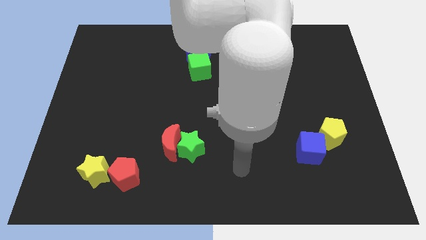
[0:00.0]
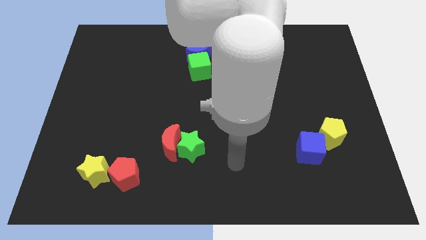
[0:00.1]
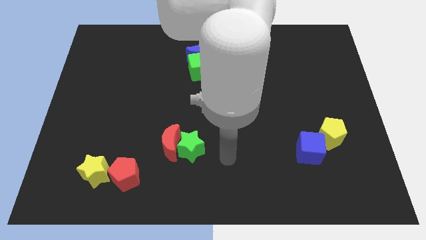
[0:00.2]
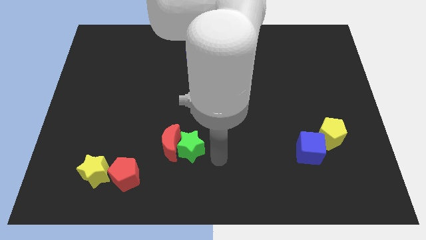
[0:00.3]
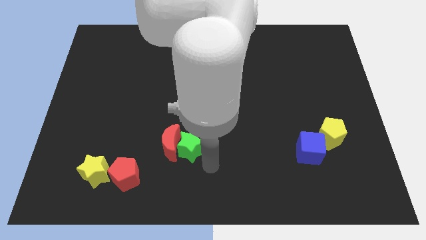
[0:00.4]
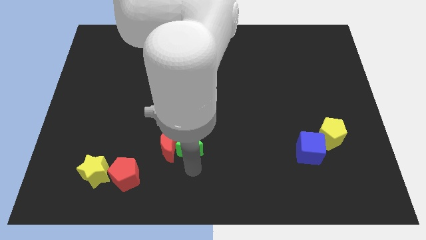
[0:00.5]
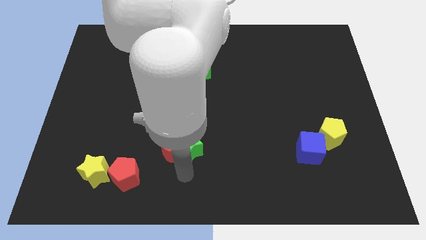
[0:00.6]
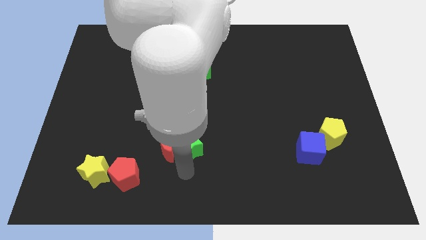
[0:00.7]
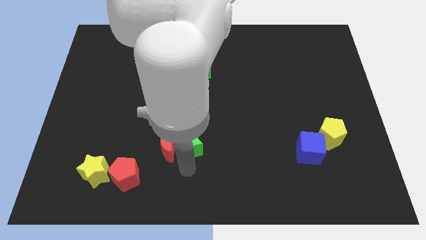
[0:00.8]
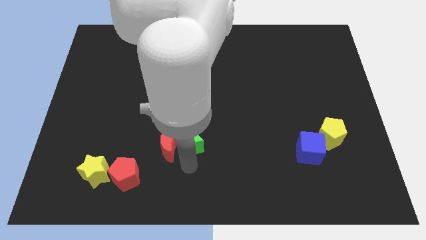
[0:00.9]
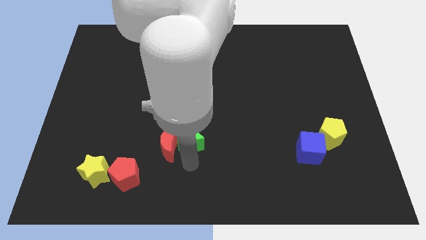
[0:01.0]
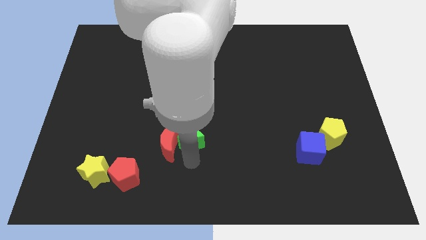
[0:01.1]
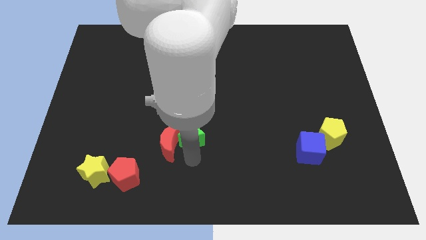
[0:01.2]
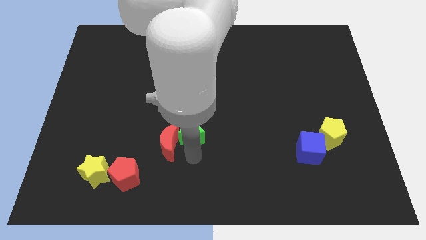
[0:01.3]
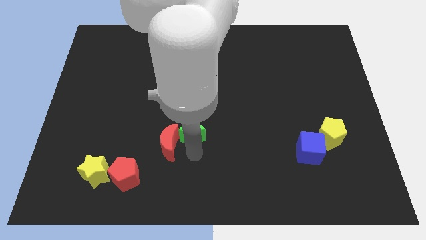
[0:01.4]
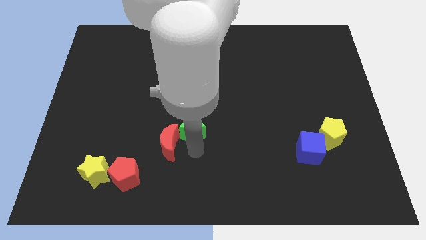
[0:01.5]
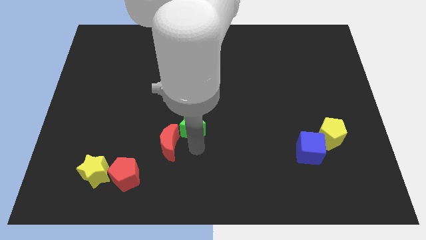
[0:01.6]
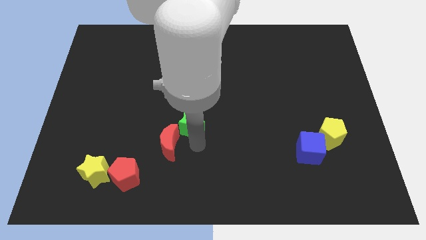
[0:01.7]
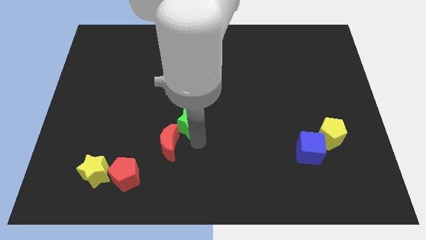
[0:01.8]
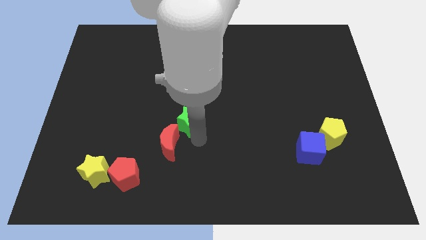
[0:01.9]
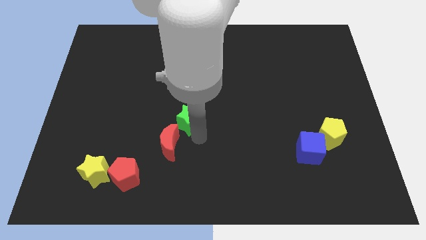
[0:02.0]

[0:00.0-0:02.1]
push the green star a bit up

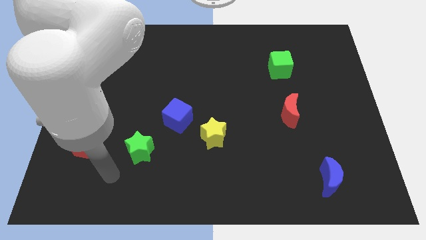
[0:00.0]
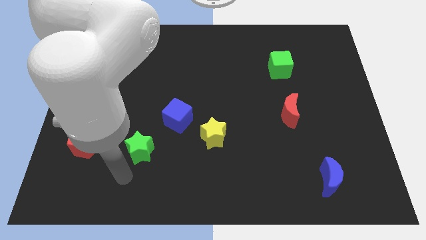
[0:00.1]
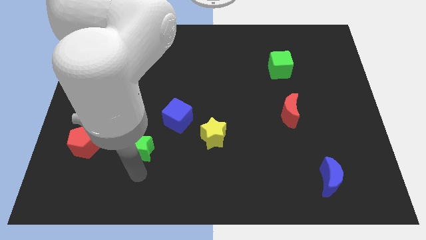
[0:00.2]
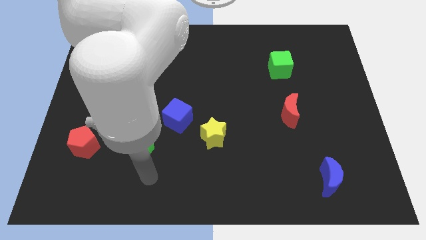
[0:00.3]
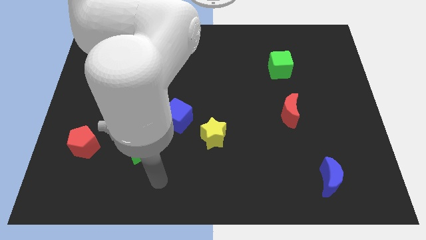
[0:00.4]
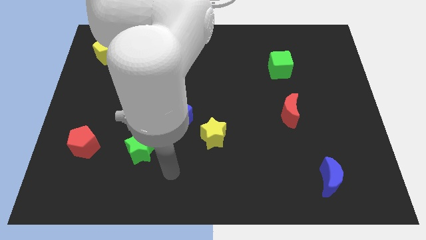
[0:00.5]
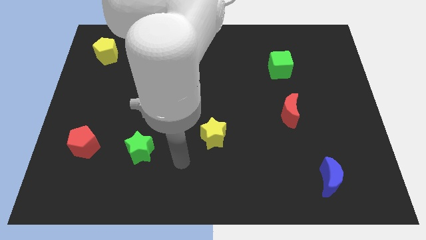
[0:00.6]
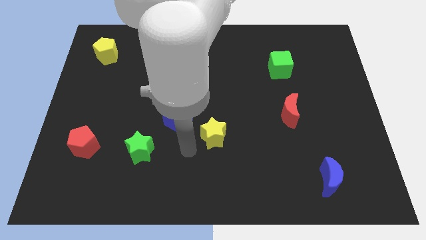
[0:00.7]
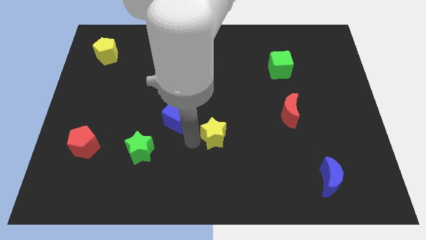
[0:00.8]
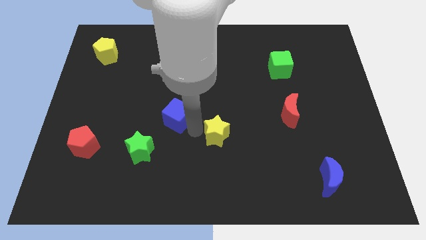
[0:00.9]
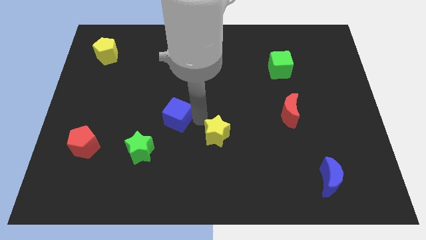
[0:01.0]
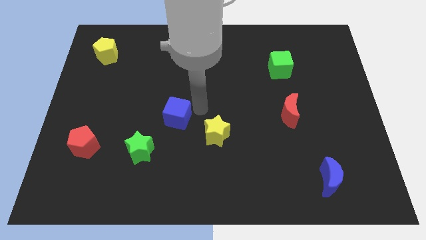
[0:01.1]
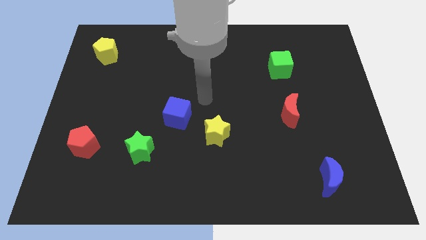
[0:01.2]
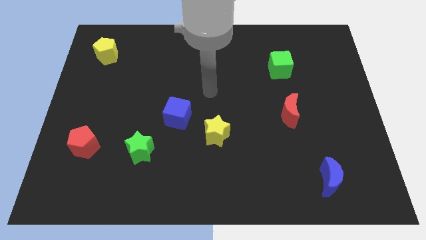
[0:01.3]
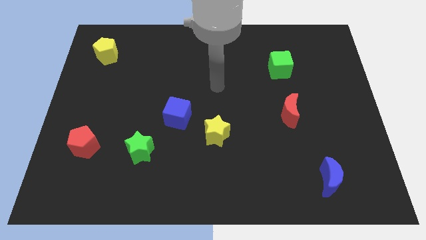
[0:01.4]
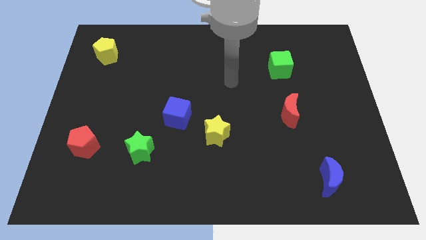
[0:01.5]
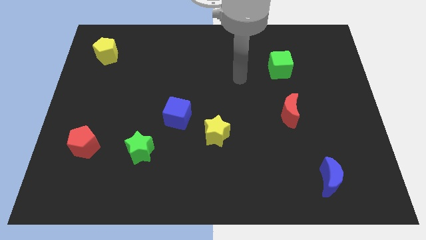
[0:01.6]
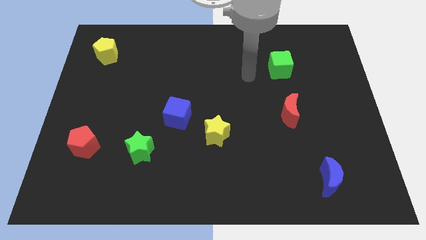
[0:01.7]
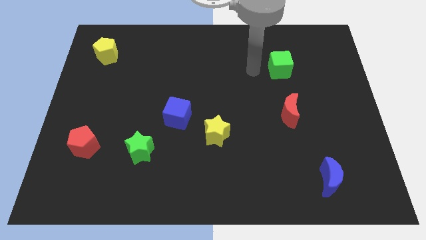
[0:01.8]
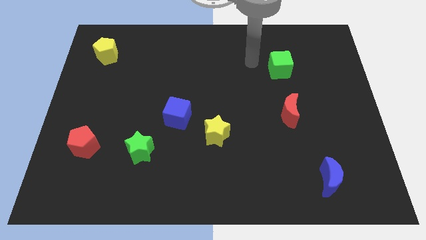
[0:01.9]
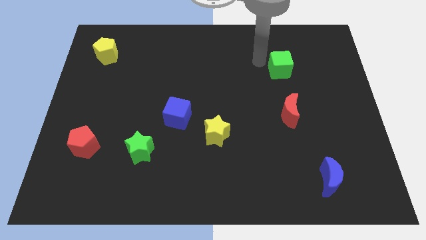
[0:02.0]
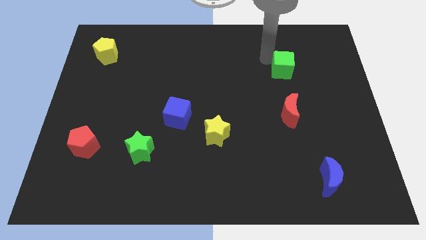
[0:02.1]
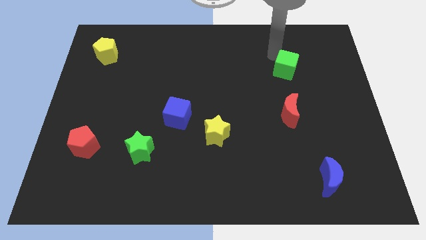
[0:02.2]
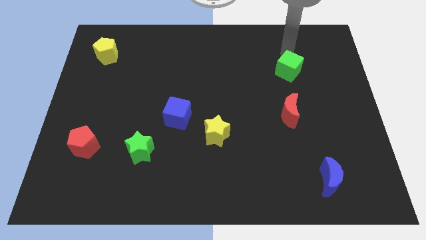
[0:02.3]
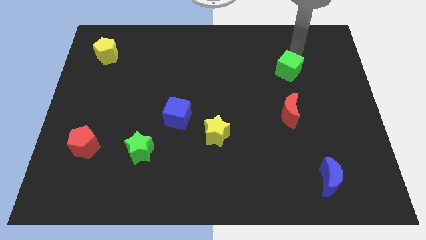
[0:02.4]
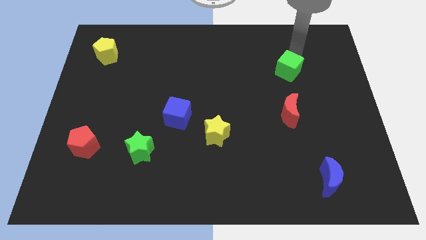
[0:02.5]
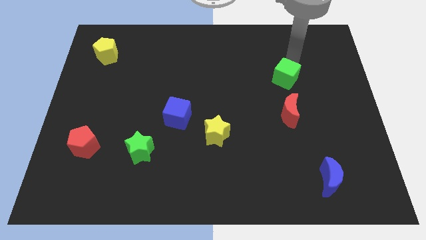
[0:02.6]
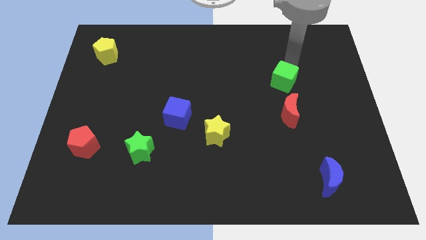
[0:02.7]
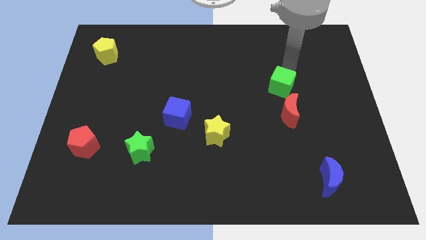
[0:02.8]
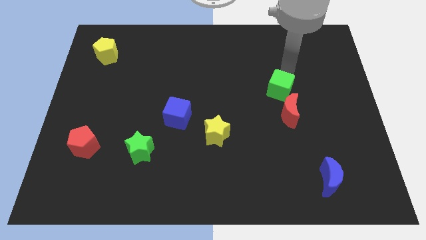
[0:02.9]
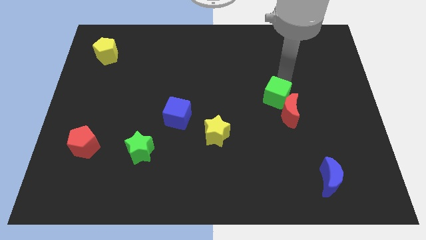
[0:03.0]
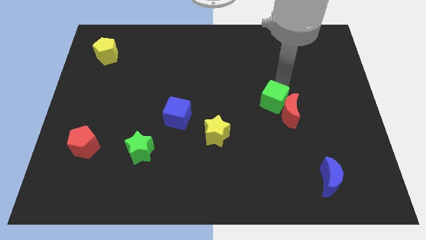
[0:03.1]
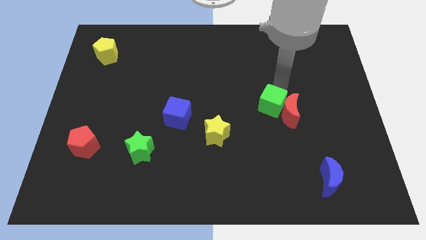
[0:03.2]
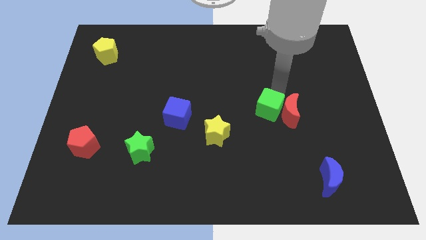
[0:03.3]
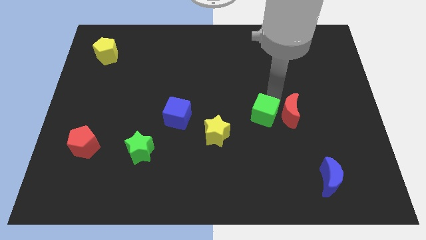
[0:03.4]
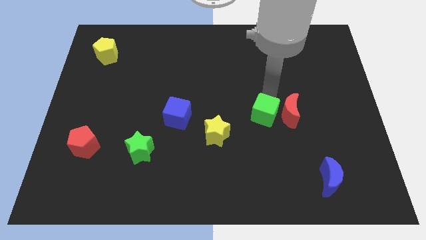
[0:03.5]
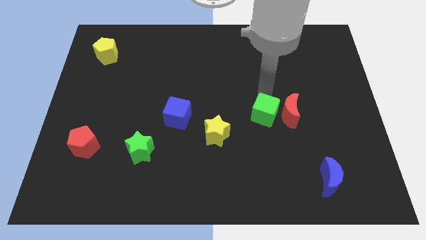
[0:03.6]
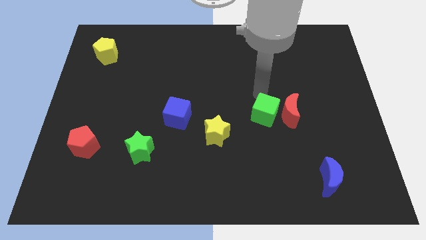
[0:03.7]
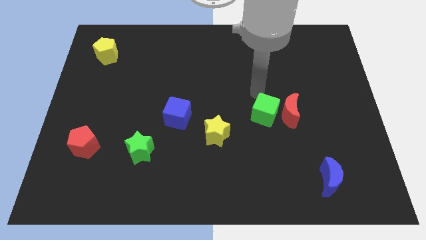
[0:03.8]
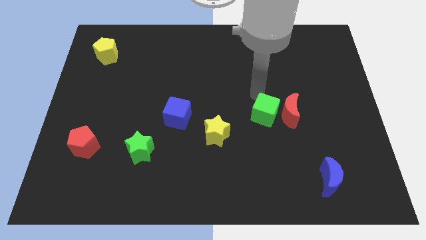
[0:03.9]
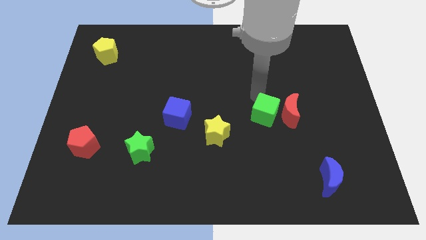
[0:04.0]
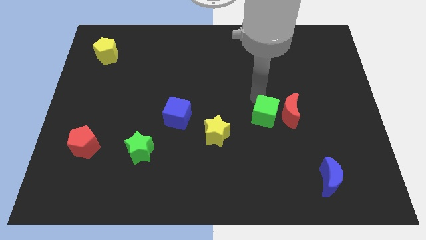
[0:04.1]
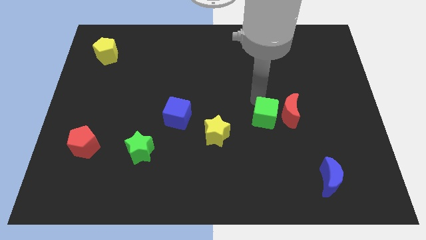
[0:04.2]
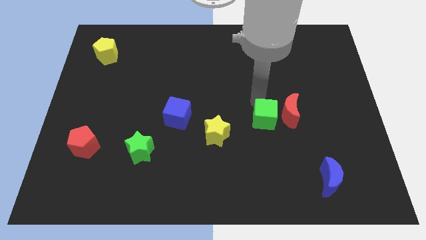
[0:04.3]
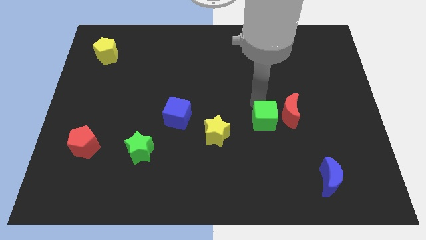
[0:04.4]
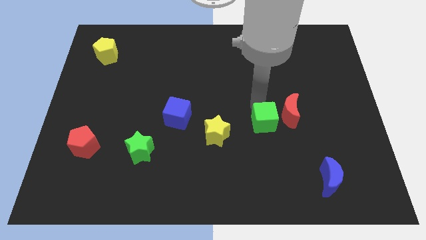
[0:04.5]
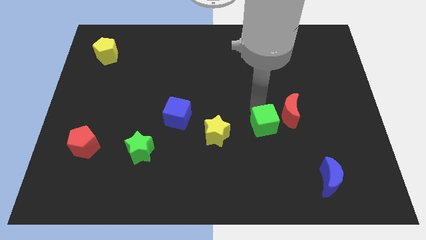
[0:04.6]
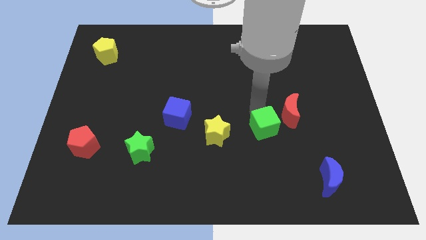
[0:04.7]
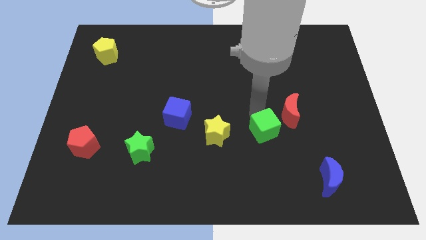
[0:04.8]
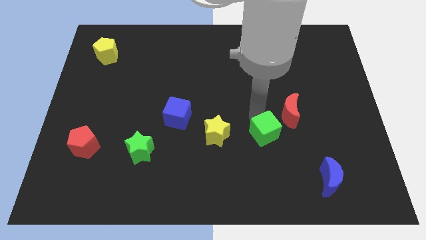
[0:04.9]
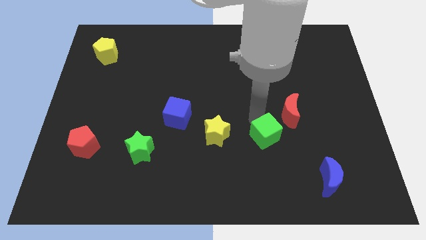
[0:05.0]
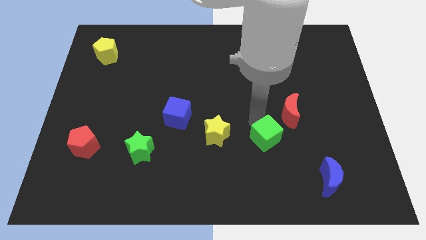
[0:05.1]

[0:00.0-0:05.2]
push the green cube down

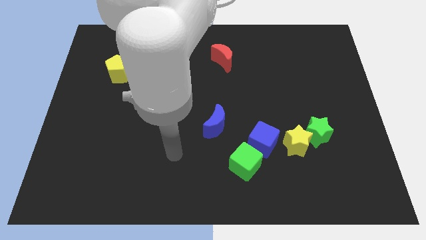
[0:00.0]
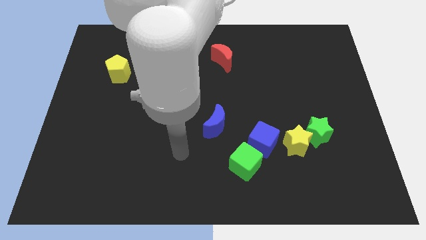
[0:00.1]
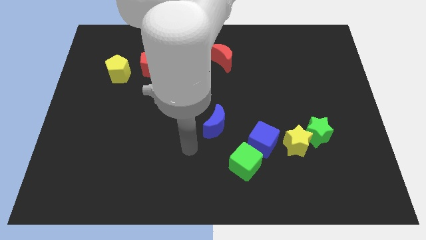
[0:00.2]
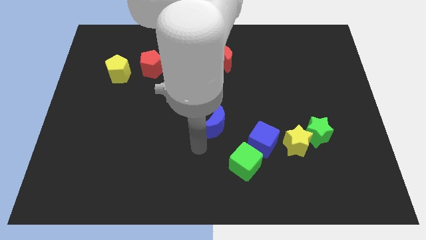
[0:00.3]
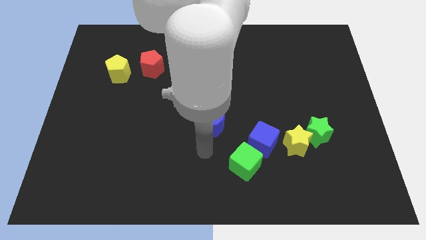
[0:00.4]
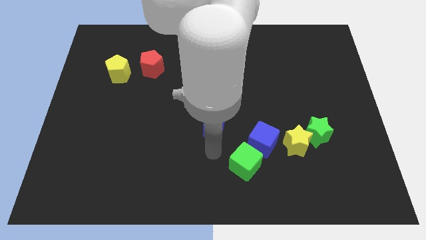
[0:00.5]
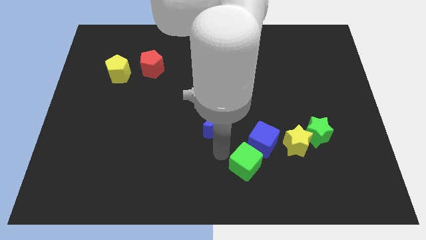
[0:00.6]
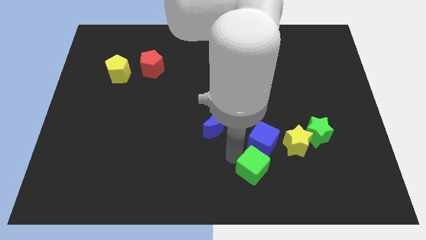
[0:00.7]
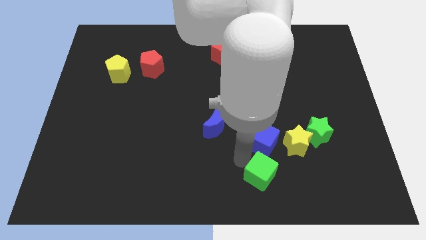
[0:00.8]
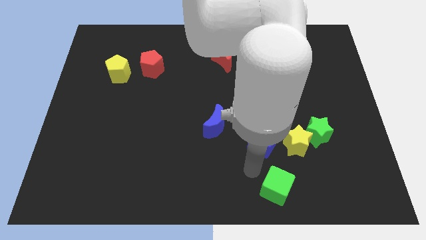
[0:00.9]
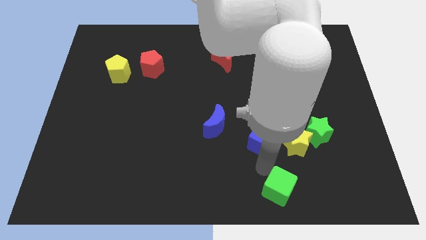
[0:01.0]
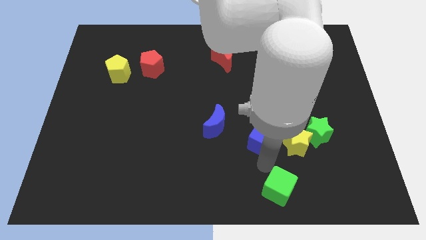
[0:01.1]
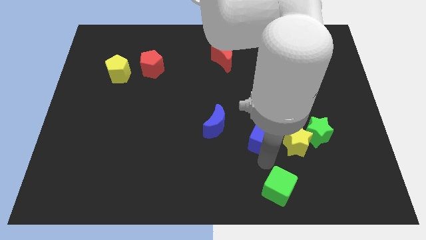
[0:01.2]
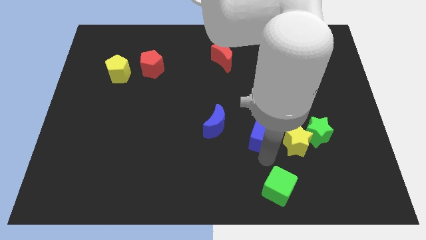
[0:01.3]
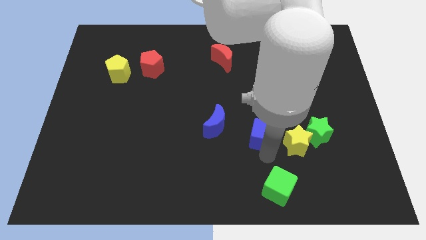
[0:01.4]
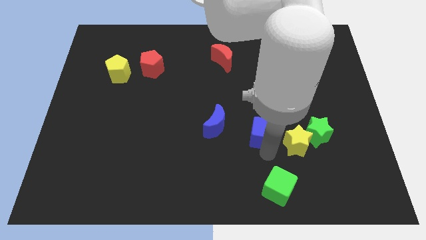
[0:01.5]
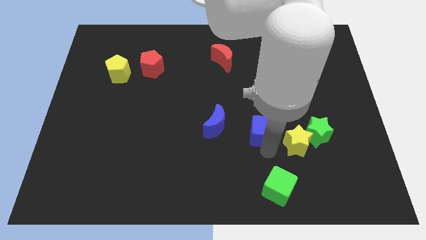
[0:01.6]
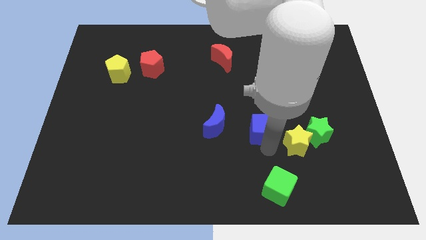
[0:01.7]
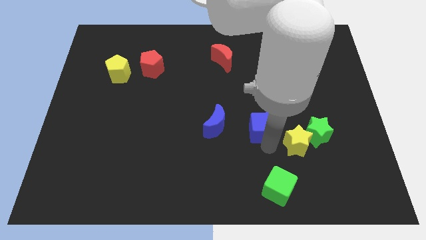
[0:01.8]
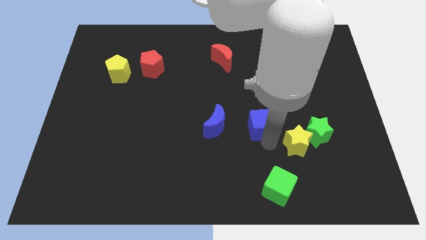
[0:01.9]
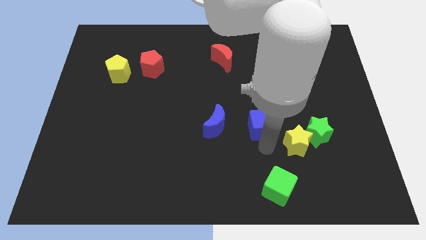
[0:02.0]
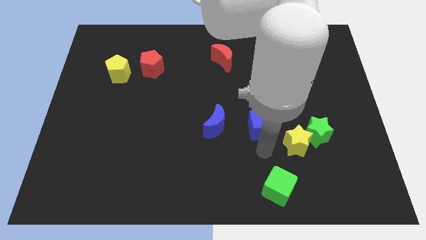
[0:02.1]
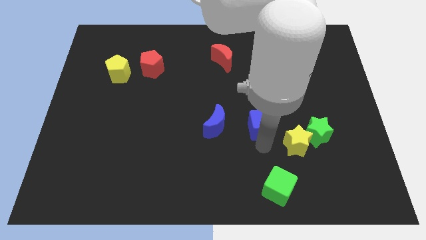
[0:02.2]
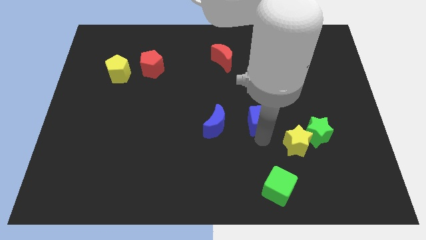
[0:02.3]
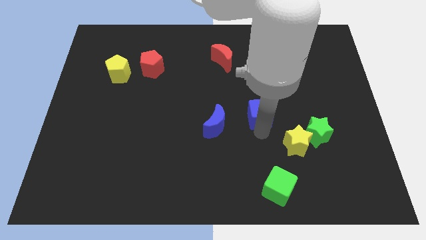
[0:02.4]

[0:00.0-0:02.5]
slightly move the blue cube upwards
